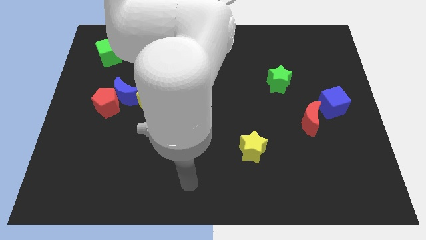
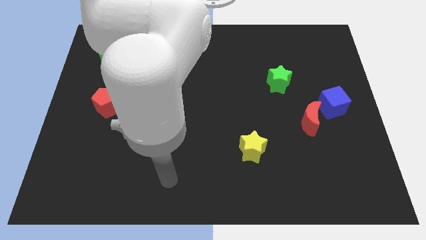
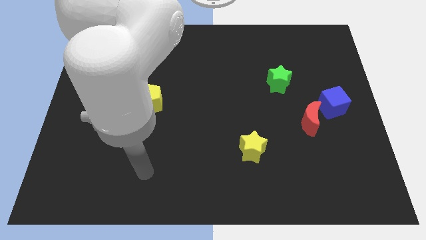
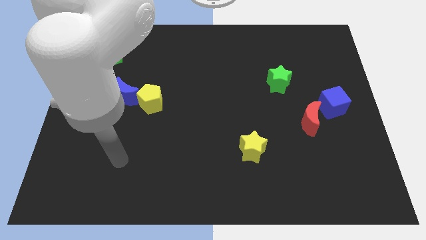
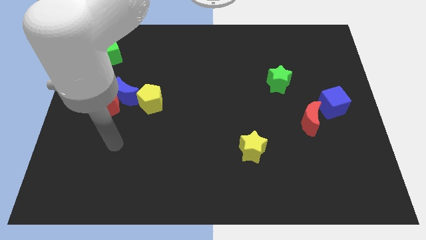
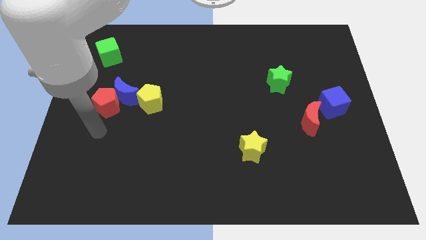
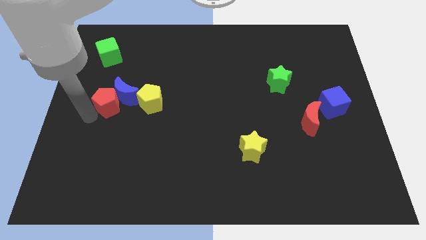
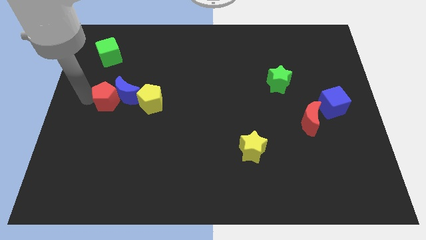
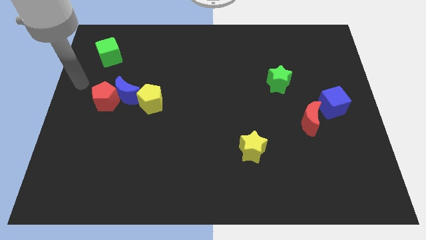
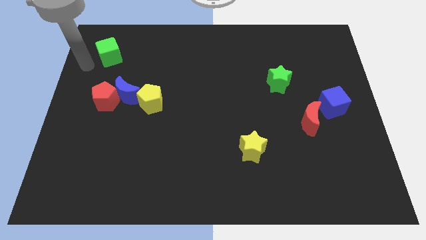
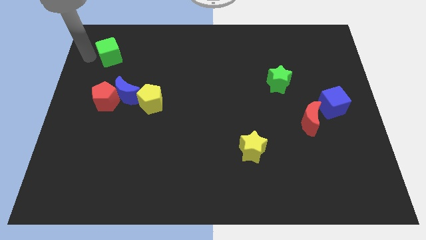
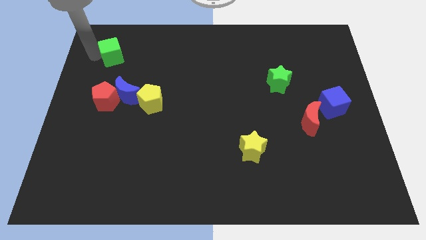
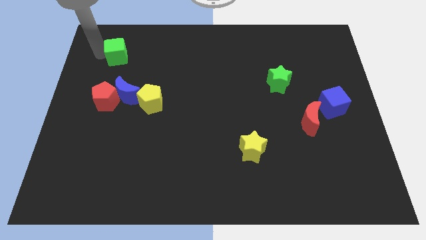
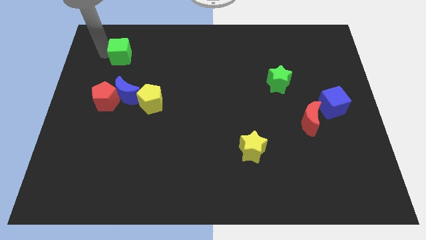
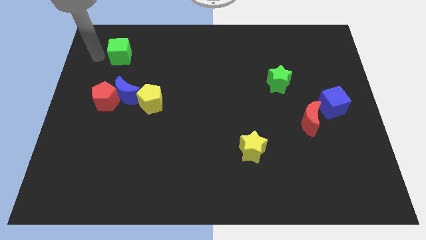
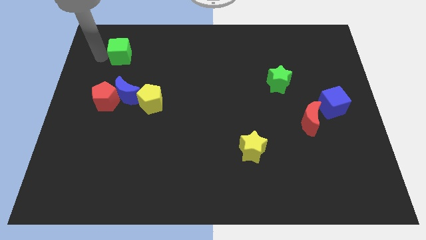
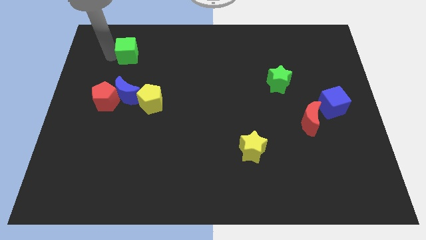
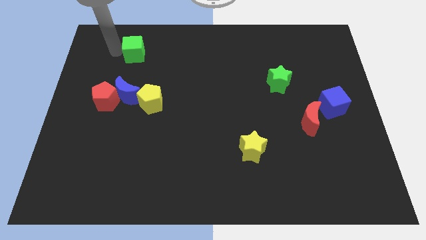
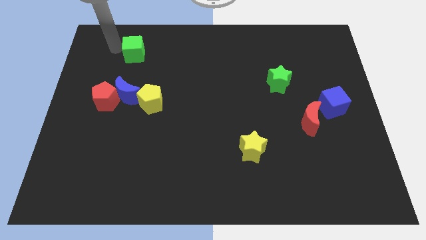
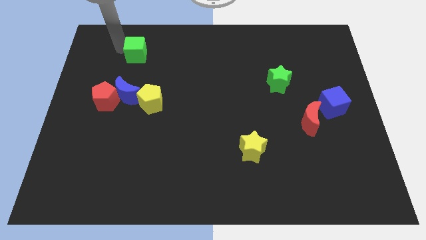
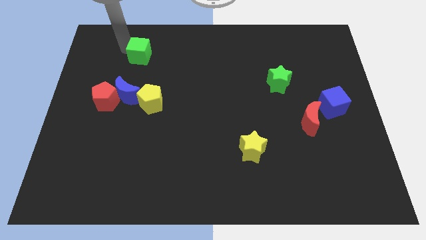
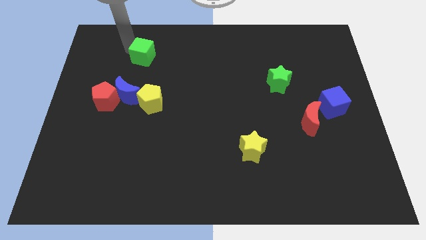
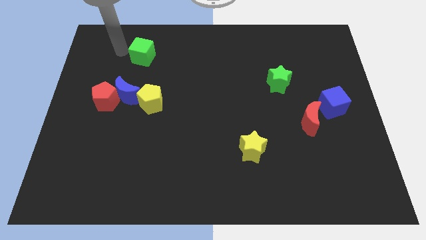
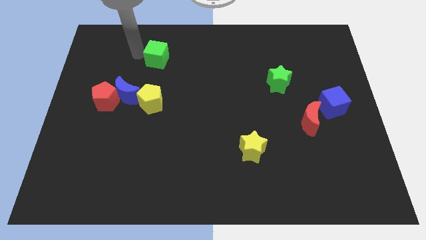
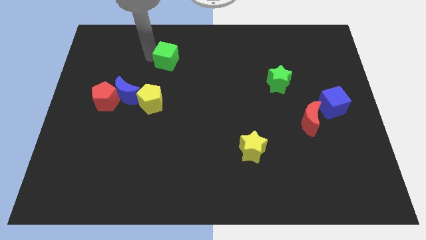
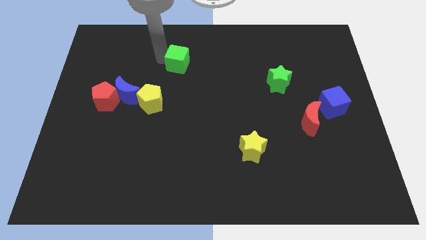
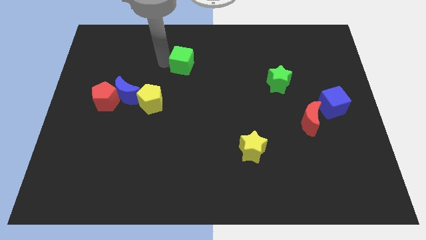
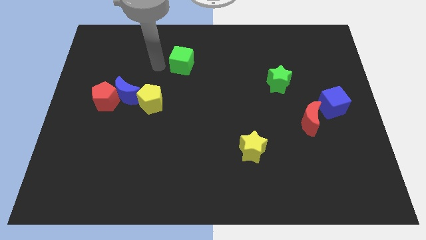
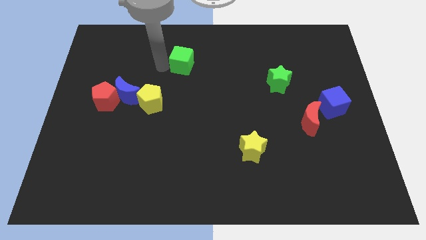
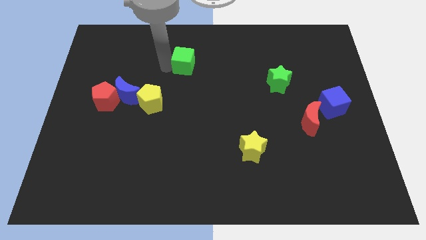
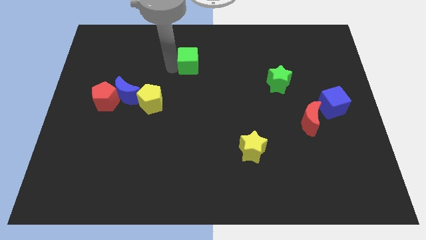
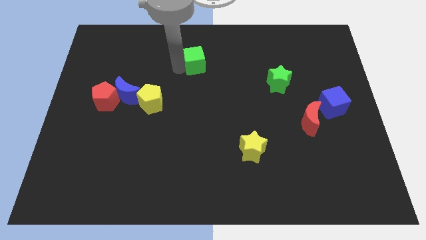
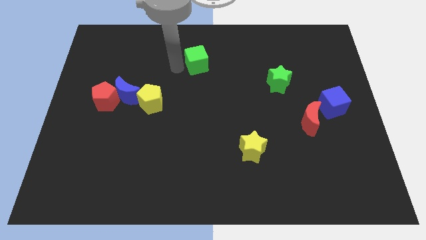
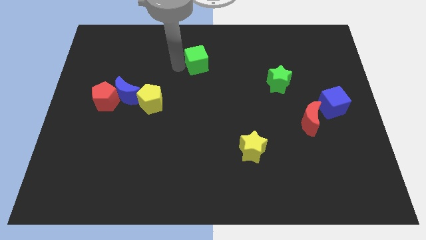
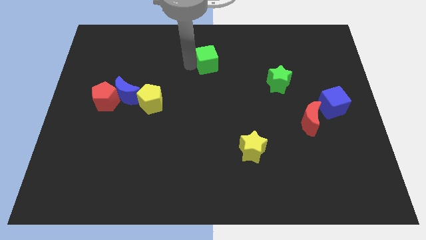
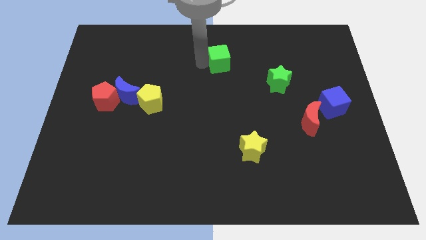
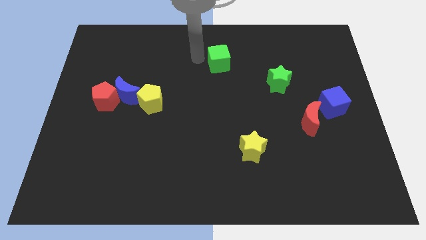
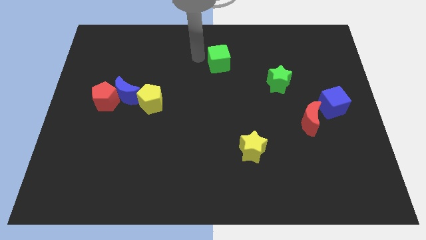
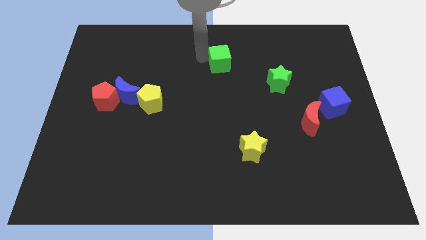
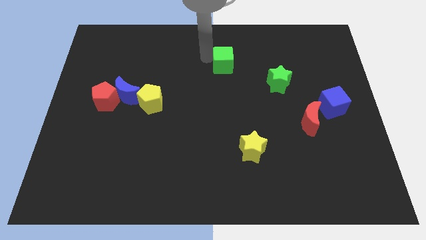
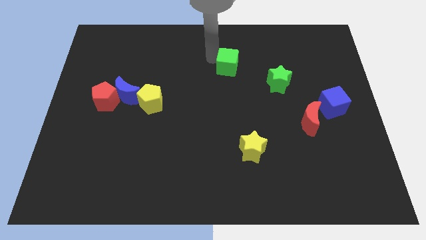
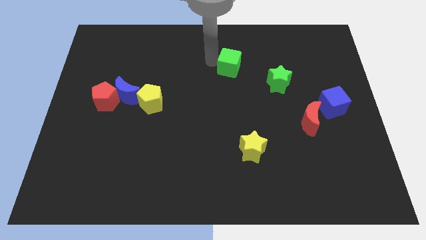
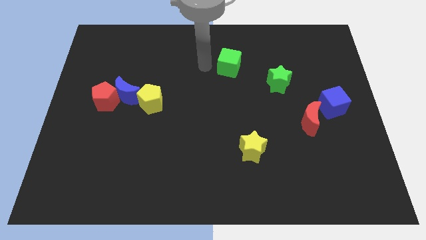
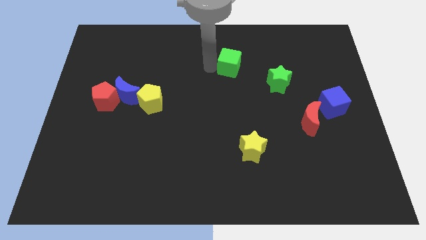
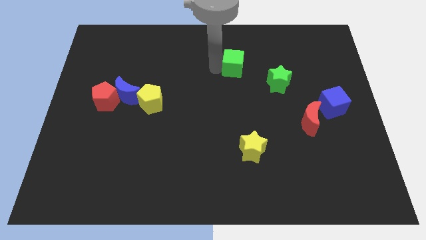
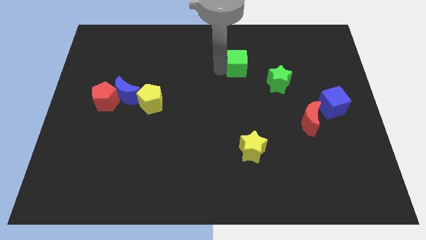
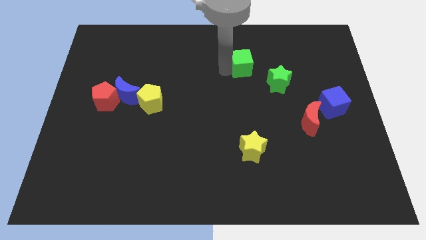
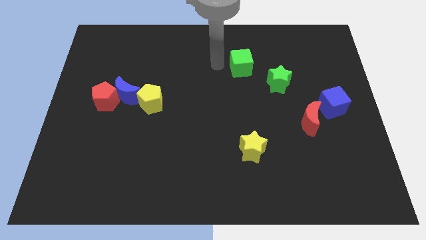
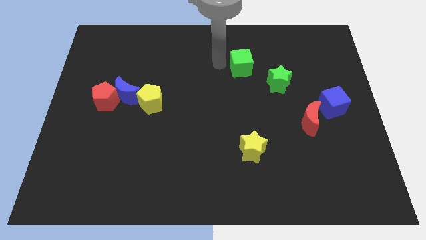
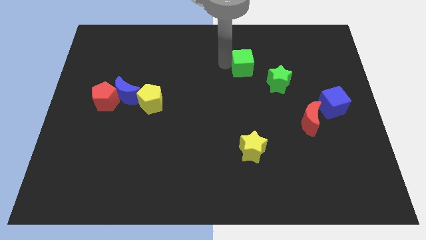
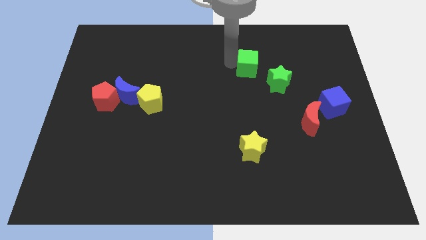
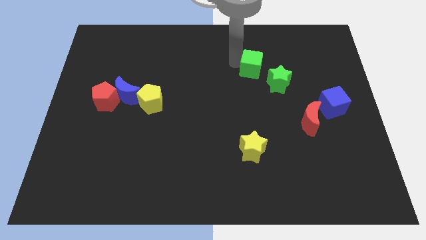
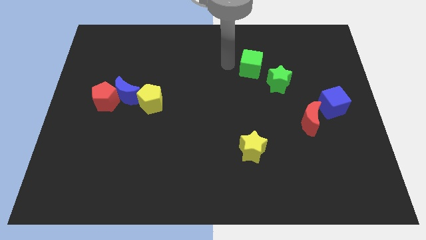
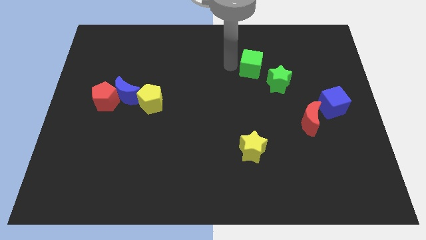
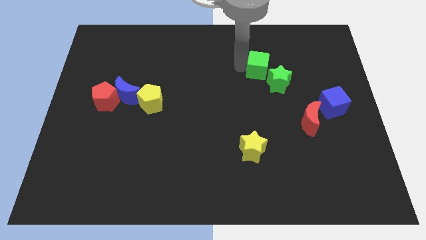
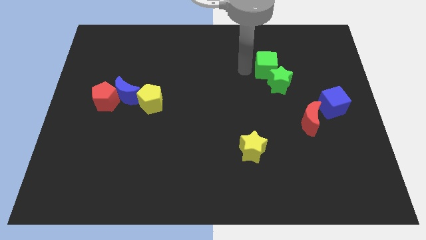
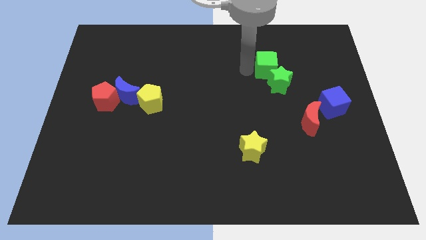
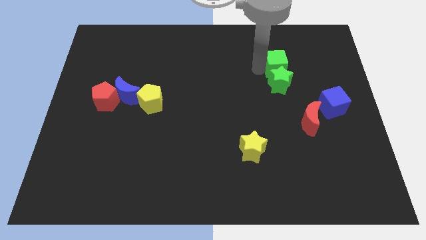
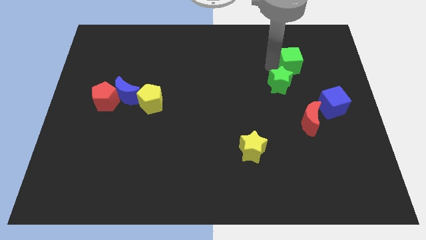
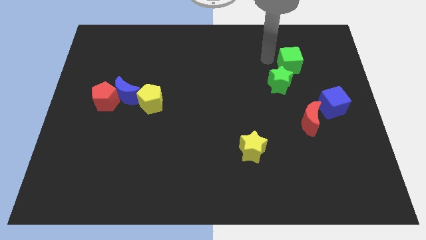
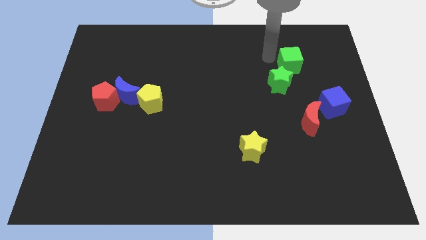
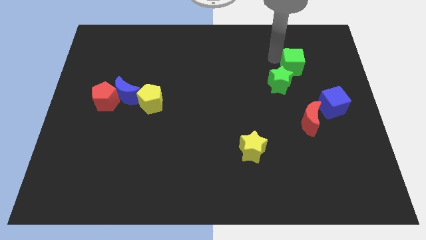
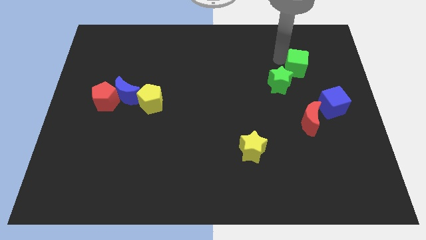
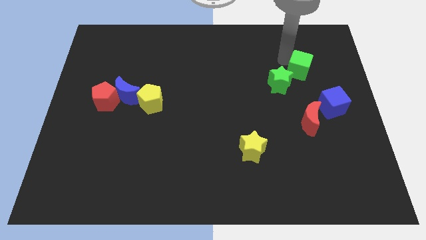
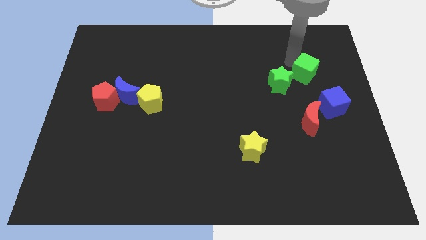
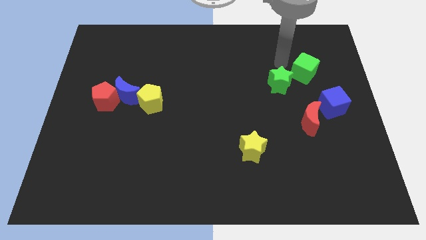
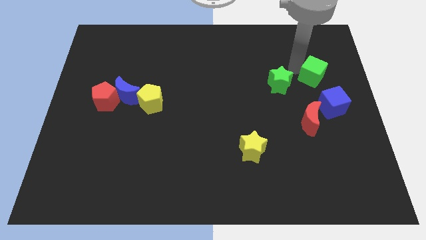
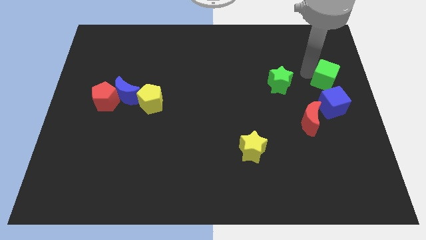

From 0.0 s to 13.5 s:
put the green cube to the right side
